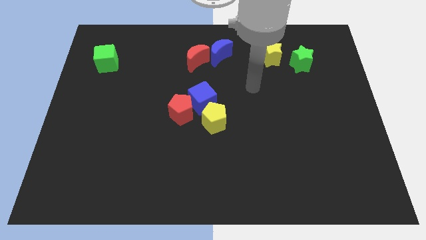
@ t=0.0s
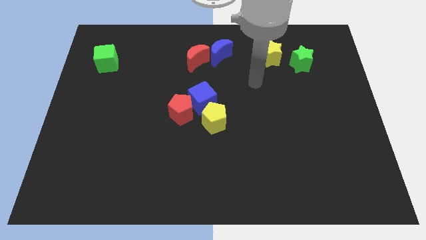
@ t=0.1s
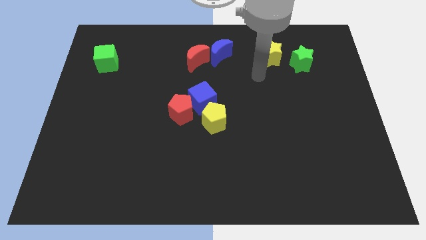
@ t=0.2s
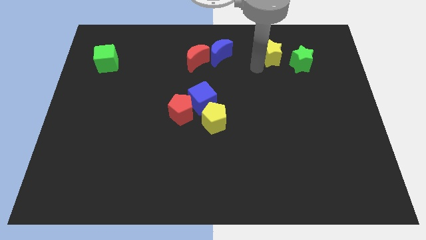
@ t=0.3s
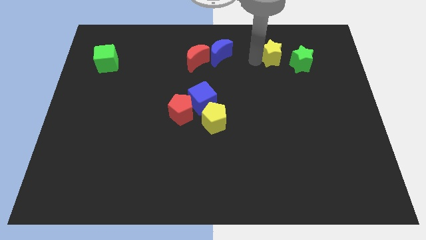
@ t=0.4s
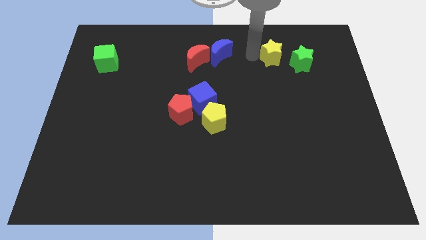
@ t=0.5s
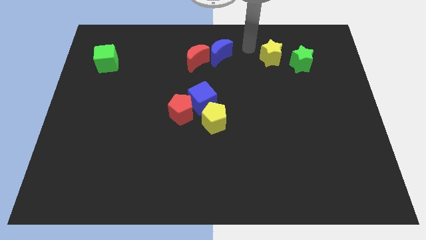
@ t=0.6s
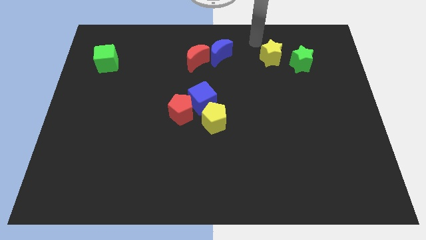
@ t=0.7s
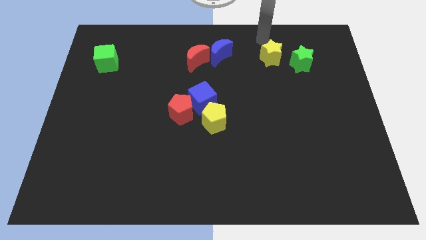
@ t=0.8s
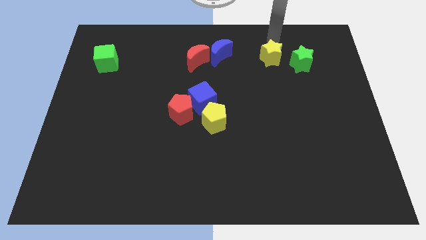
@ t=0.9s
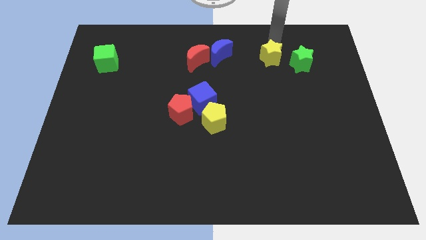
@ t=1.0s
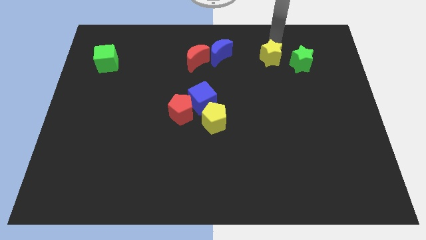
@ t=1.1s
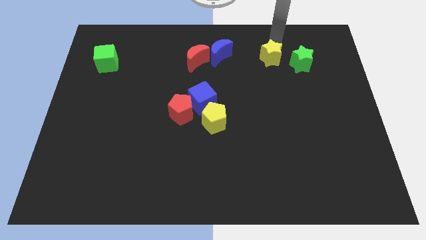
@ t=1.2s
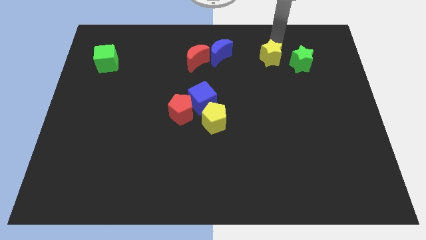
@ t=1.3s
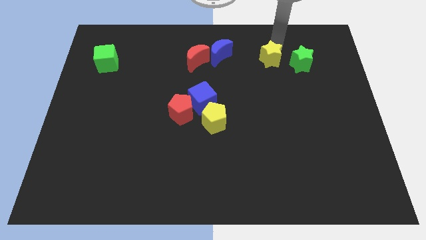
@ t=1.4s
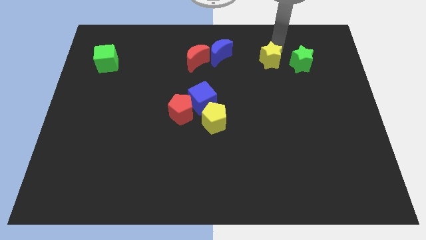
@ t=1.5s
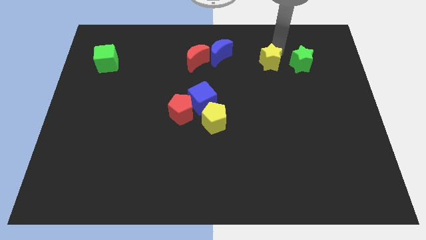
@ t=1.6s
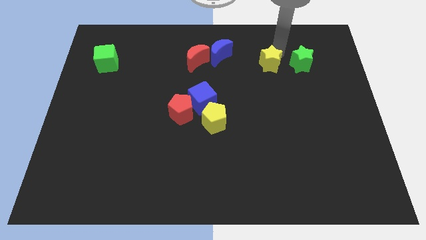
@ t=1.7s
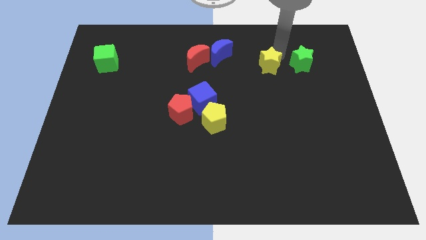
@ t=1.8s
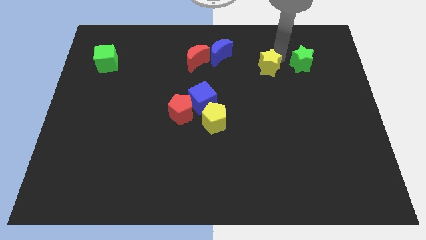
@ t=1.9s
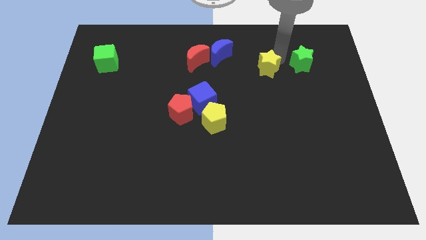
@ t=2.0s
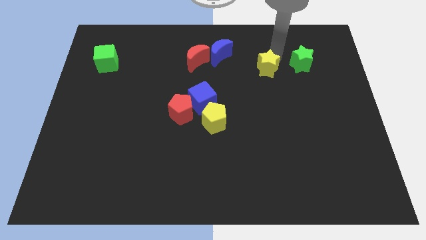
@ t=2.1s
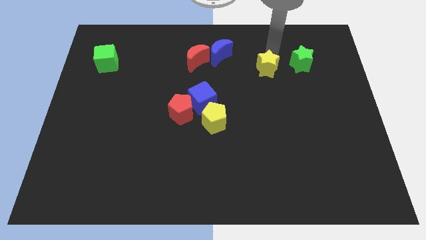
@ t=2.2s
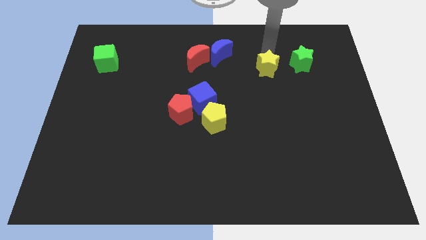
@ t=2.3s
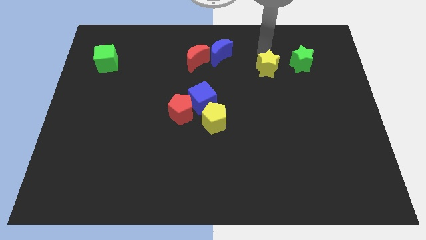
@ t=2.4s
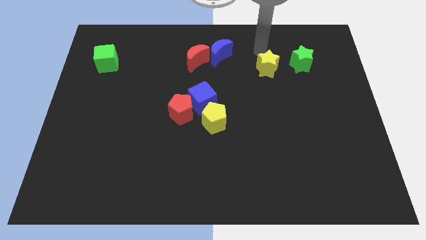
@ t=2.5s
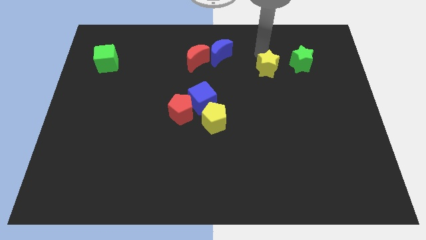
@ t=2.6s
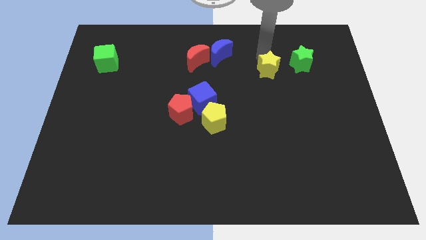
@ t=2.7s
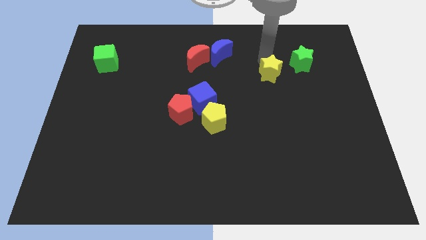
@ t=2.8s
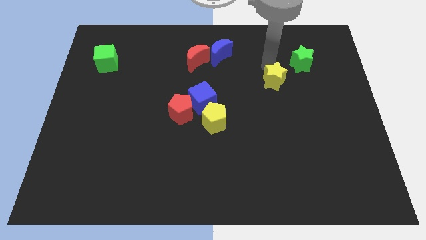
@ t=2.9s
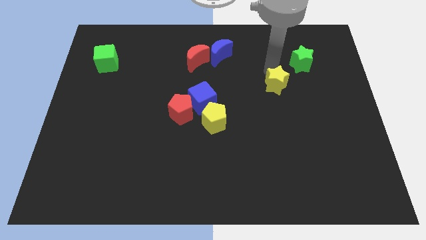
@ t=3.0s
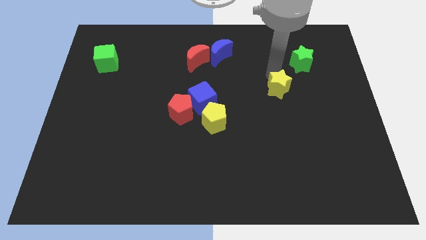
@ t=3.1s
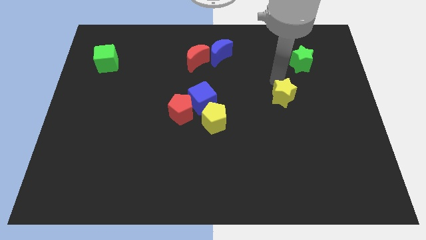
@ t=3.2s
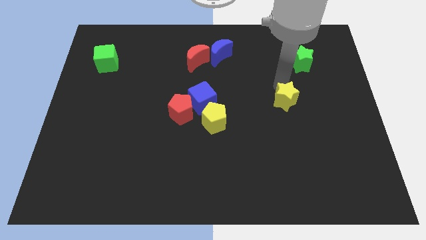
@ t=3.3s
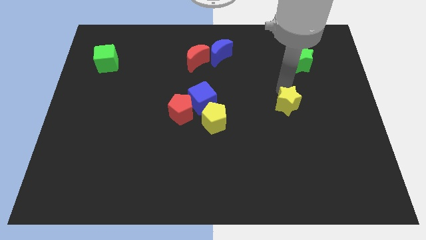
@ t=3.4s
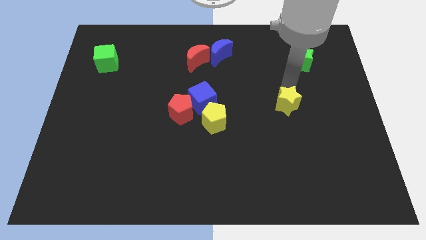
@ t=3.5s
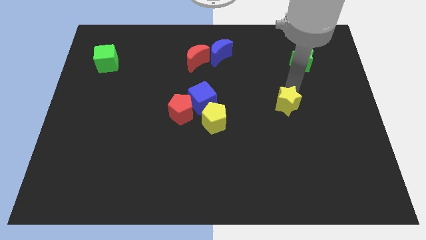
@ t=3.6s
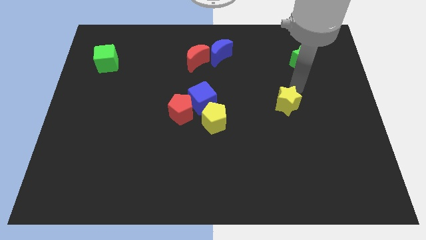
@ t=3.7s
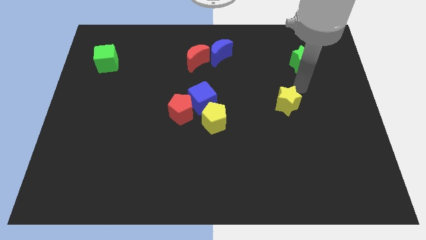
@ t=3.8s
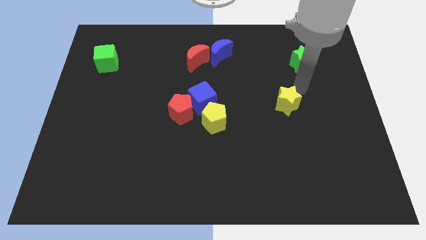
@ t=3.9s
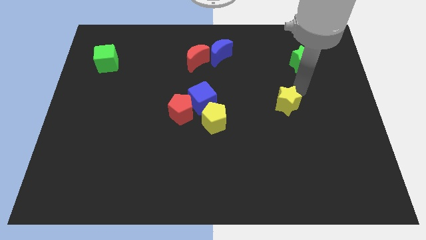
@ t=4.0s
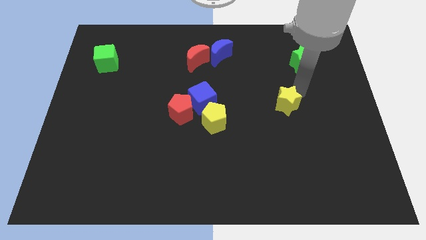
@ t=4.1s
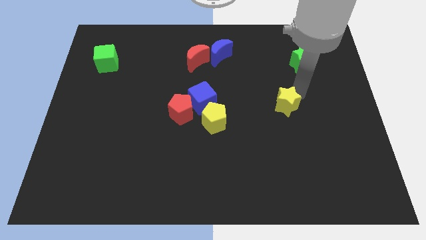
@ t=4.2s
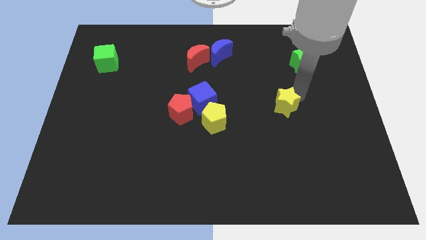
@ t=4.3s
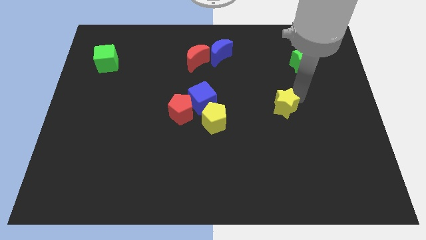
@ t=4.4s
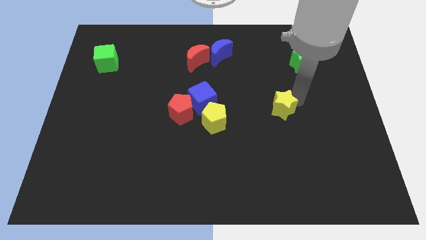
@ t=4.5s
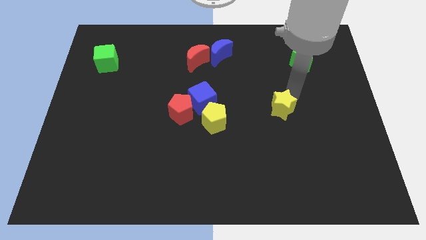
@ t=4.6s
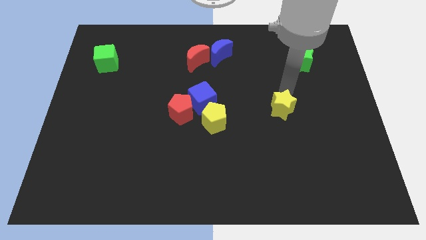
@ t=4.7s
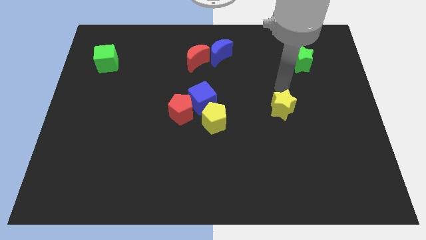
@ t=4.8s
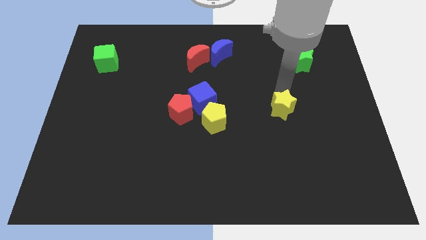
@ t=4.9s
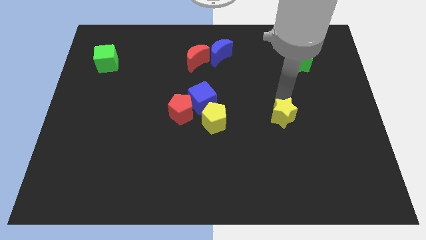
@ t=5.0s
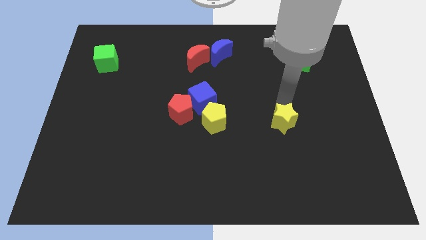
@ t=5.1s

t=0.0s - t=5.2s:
slide the yellow star downwards

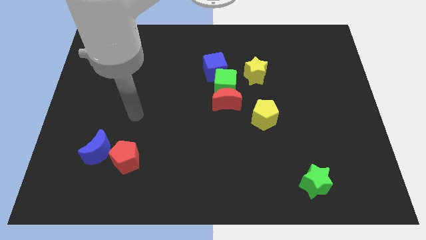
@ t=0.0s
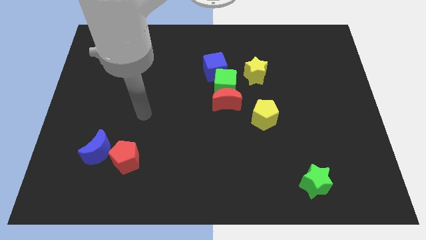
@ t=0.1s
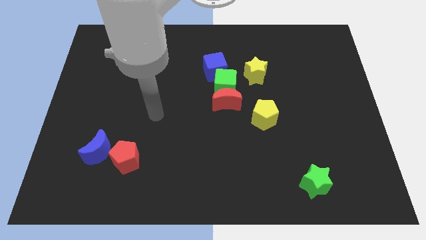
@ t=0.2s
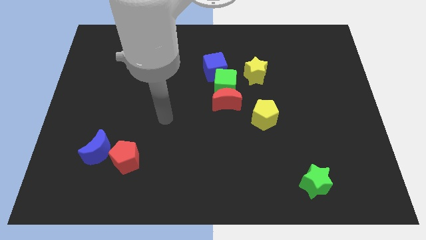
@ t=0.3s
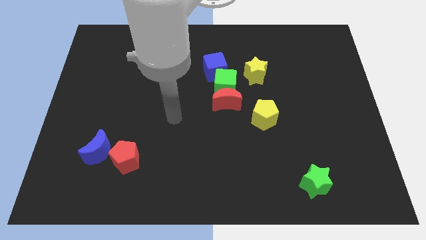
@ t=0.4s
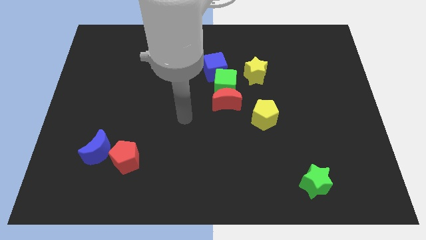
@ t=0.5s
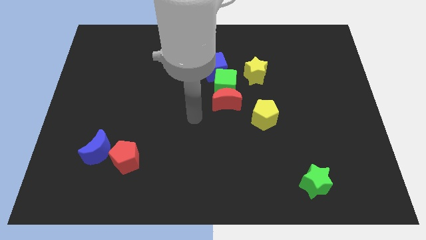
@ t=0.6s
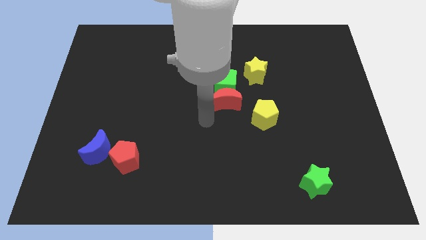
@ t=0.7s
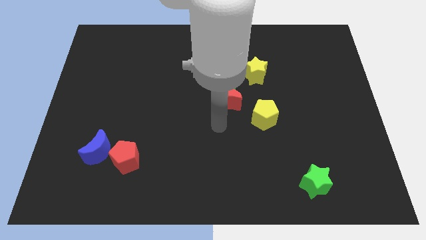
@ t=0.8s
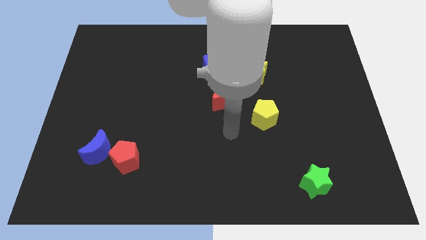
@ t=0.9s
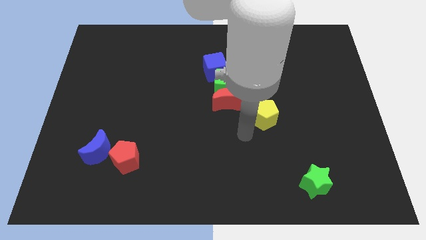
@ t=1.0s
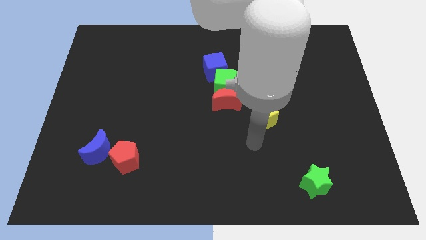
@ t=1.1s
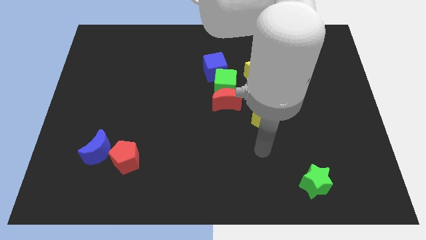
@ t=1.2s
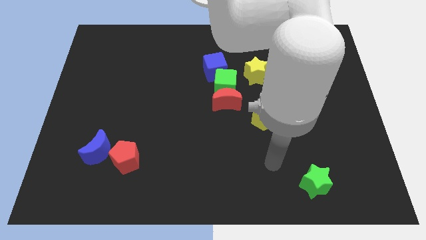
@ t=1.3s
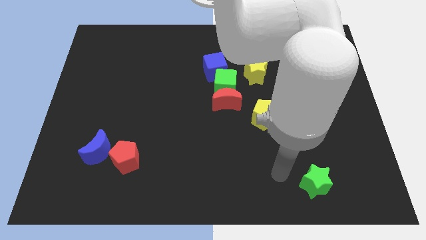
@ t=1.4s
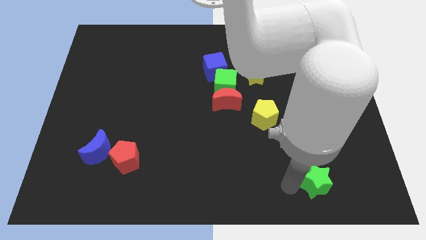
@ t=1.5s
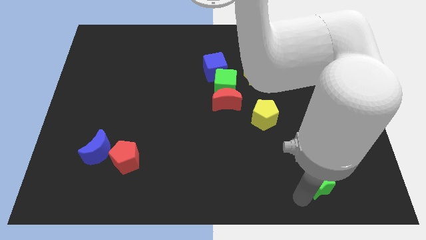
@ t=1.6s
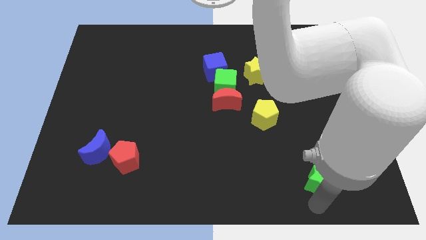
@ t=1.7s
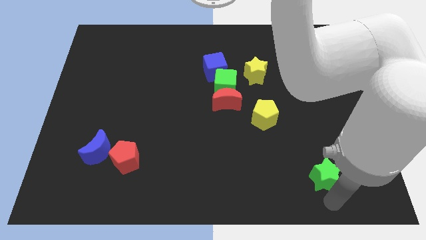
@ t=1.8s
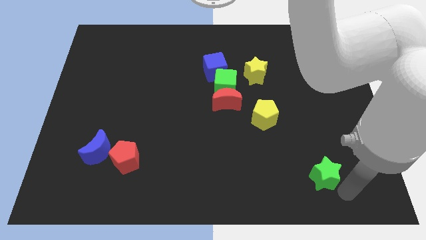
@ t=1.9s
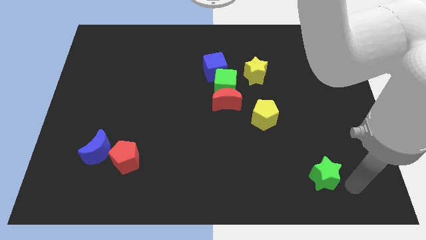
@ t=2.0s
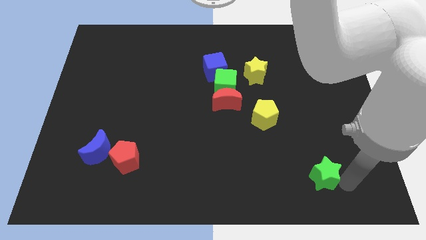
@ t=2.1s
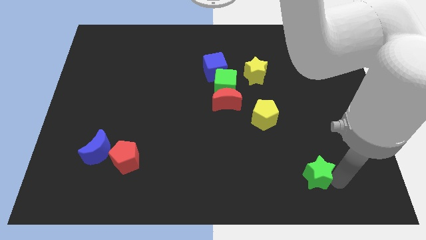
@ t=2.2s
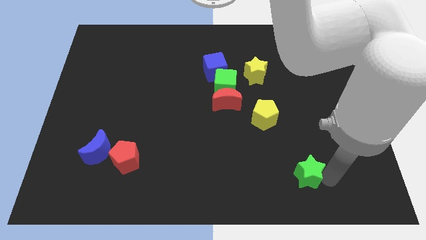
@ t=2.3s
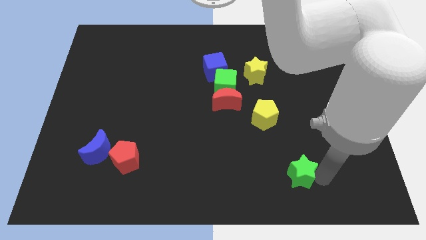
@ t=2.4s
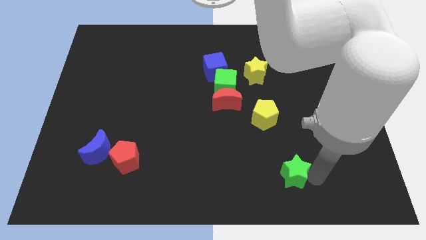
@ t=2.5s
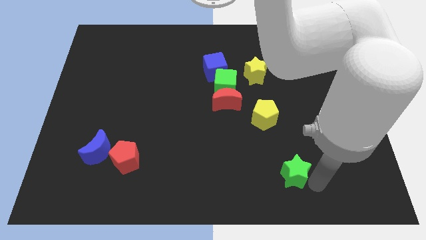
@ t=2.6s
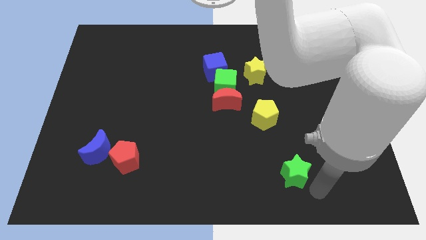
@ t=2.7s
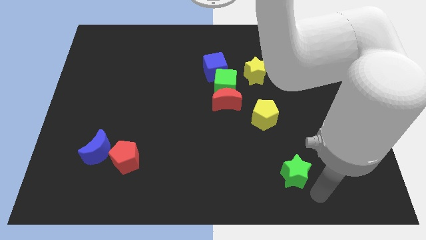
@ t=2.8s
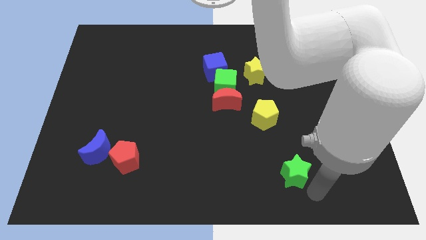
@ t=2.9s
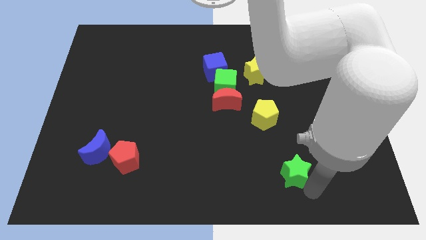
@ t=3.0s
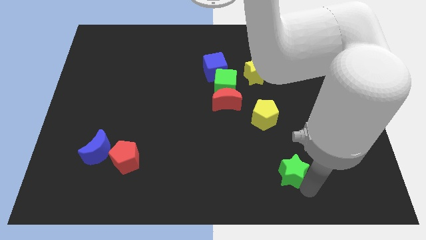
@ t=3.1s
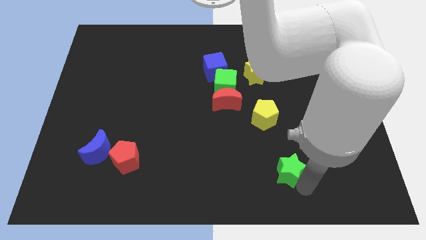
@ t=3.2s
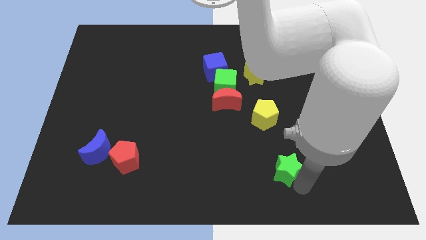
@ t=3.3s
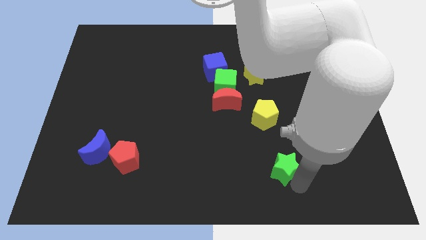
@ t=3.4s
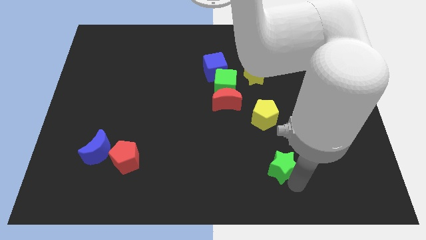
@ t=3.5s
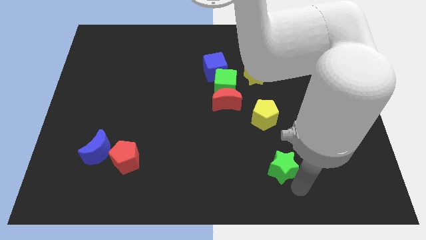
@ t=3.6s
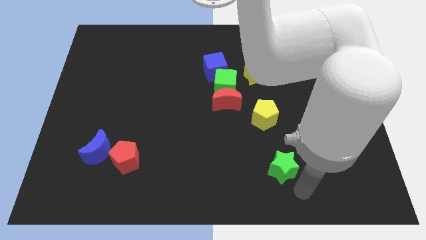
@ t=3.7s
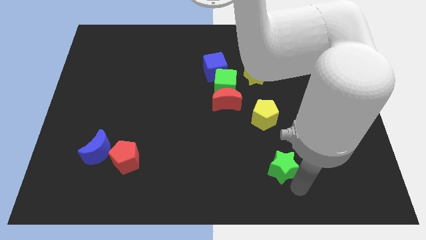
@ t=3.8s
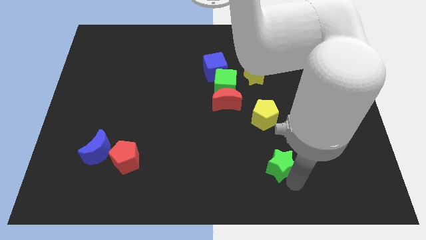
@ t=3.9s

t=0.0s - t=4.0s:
move the green star upwards and then to the left slightly
